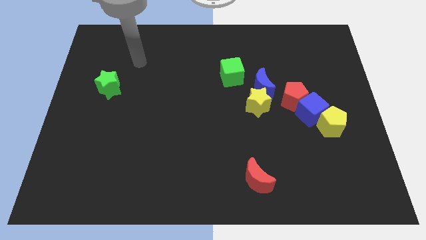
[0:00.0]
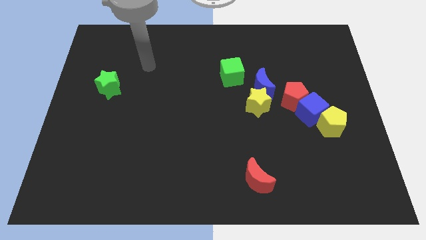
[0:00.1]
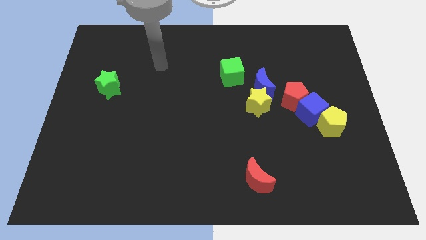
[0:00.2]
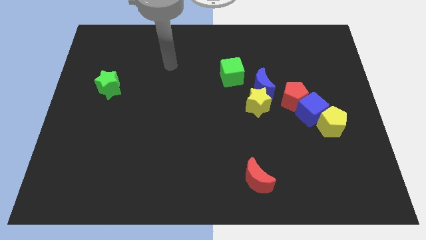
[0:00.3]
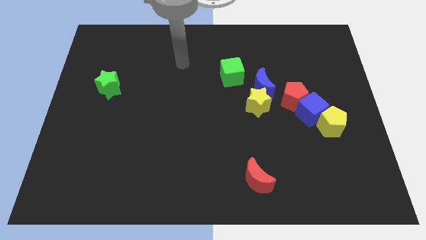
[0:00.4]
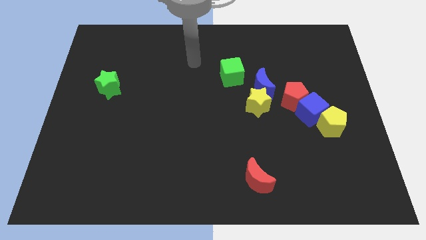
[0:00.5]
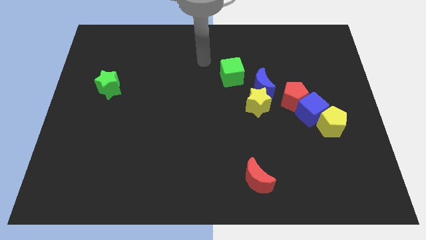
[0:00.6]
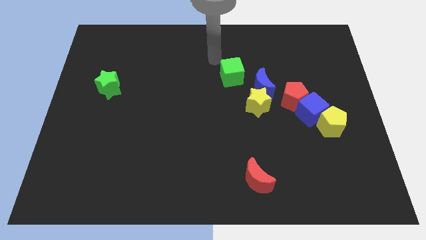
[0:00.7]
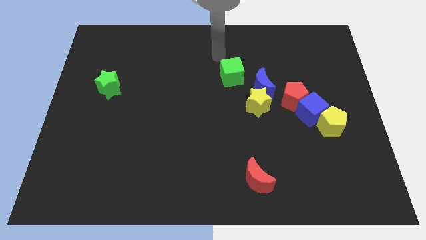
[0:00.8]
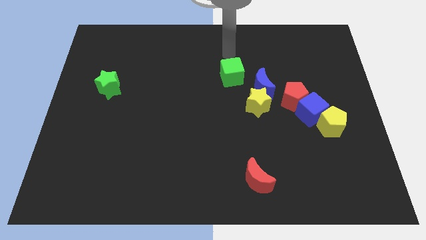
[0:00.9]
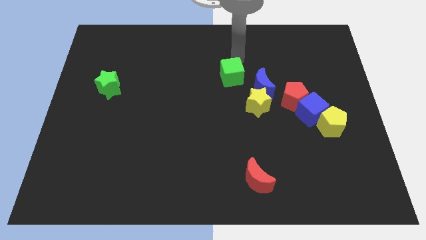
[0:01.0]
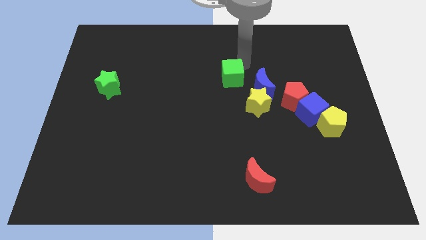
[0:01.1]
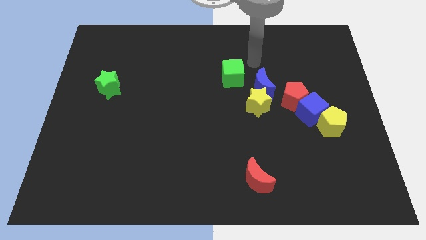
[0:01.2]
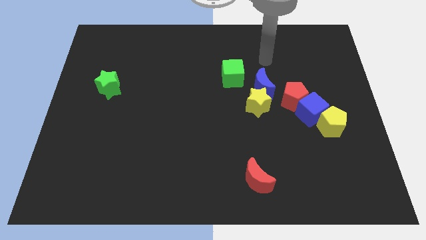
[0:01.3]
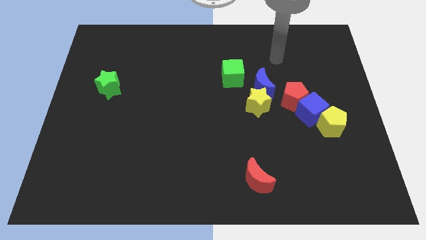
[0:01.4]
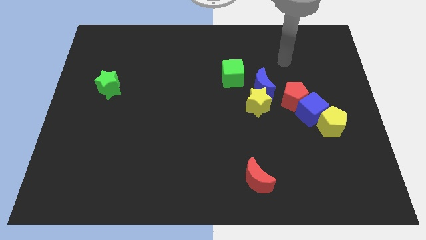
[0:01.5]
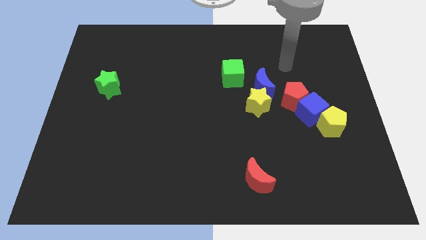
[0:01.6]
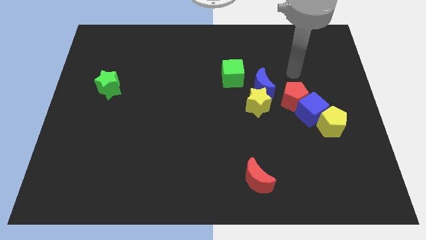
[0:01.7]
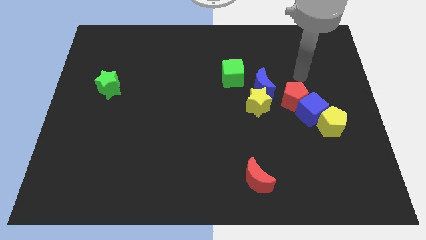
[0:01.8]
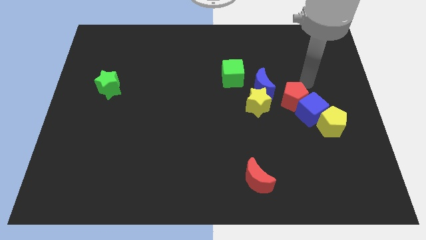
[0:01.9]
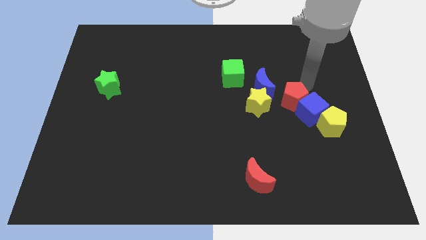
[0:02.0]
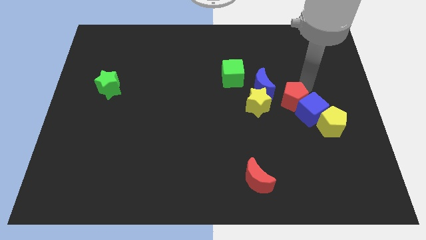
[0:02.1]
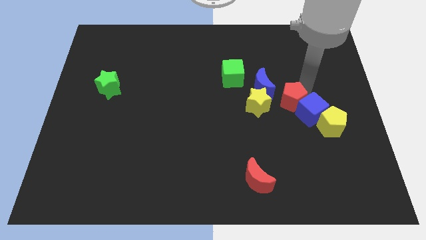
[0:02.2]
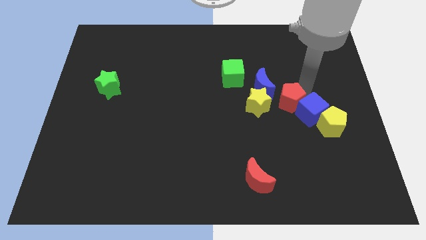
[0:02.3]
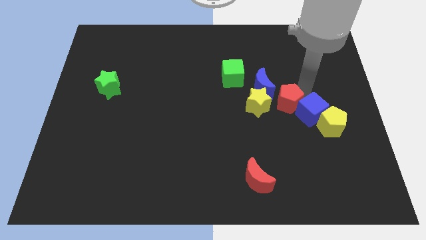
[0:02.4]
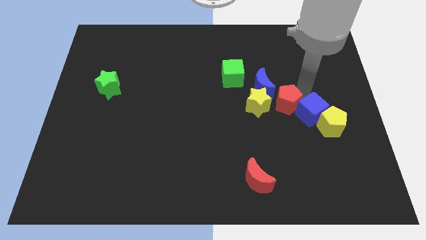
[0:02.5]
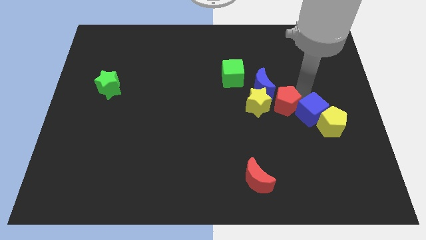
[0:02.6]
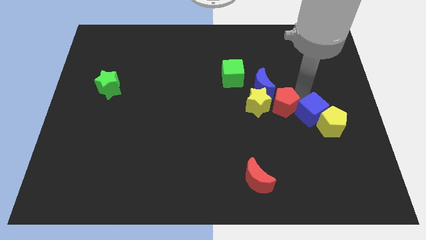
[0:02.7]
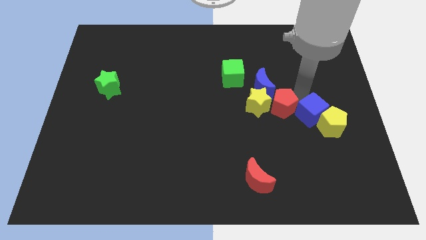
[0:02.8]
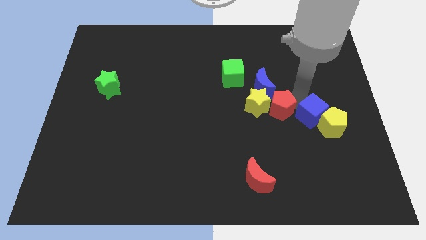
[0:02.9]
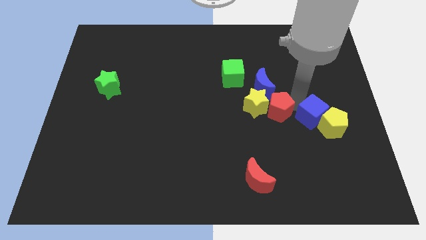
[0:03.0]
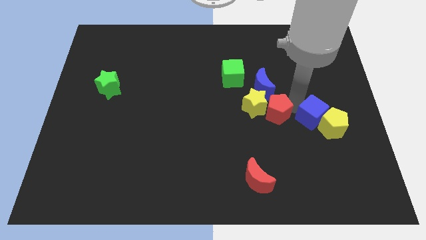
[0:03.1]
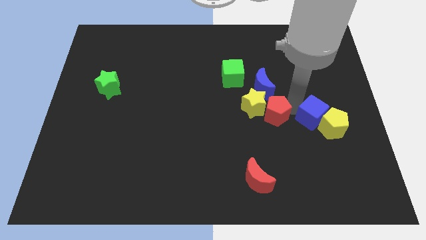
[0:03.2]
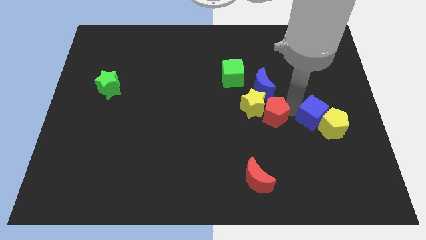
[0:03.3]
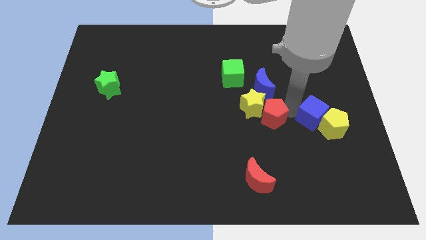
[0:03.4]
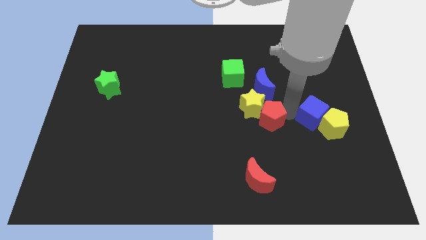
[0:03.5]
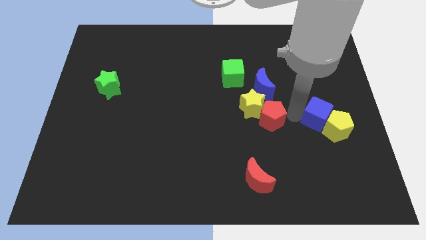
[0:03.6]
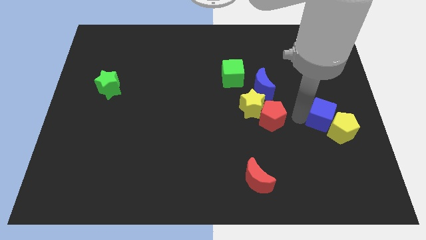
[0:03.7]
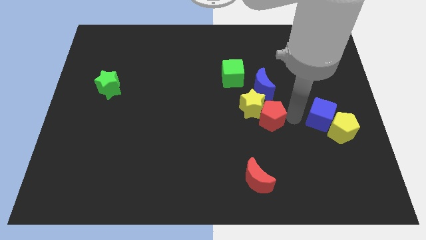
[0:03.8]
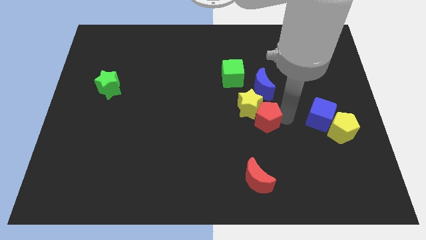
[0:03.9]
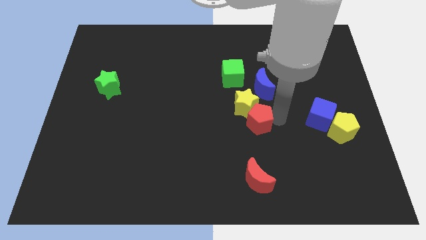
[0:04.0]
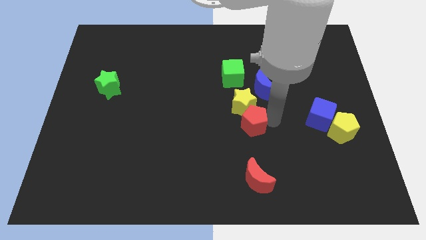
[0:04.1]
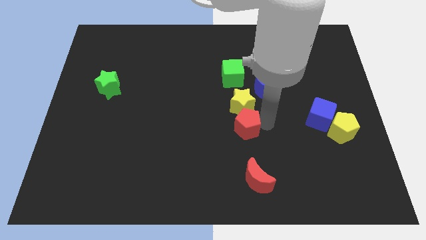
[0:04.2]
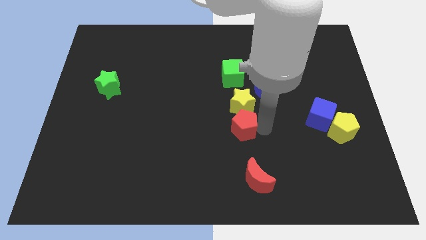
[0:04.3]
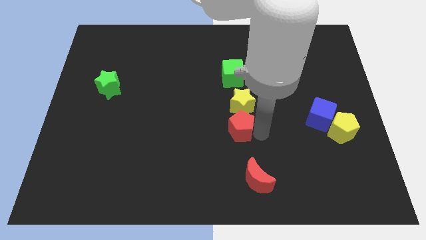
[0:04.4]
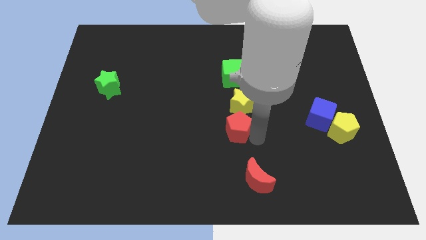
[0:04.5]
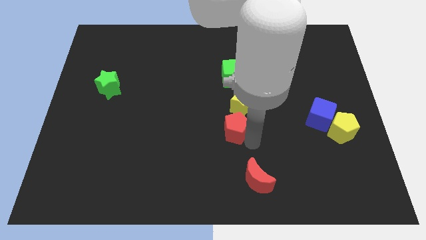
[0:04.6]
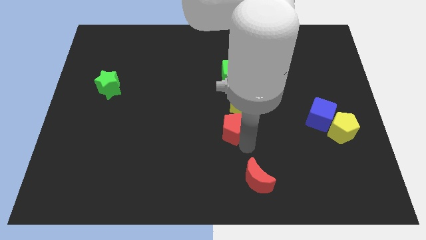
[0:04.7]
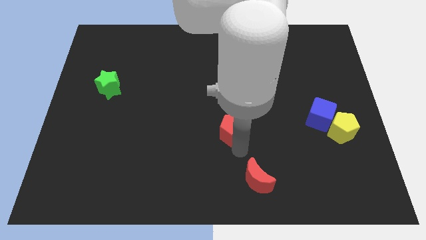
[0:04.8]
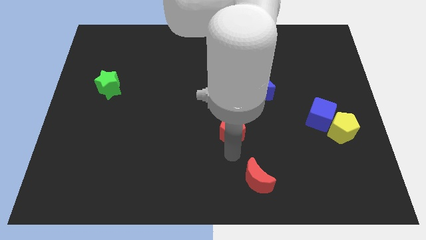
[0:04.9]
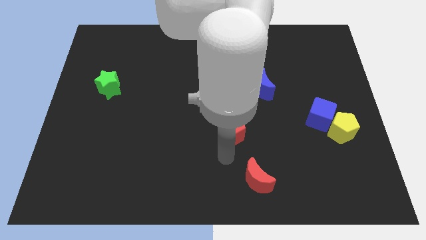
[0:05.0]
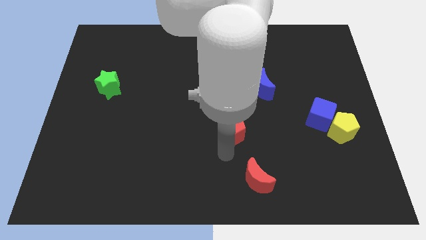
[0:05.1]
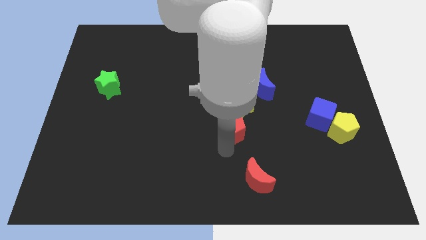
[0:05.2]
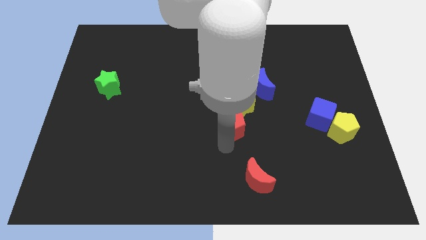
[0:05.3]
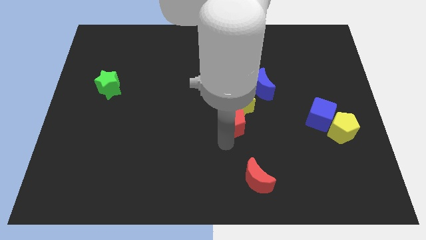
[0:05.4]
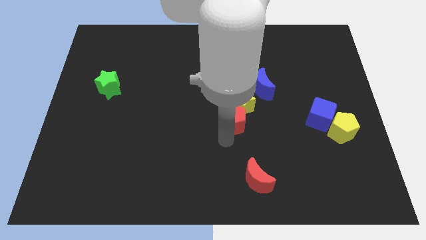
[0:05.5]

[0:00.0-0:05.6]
push the red pentagon diagonally down and to the left of the blue moon

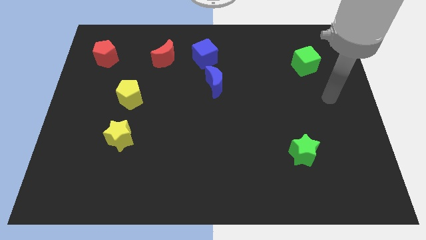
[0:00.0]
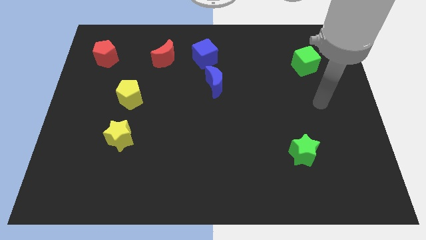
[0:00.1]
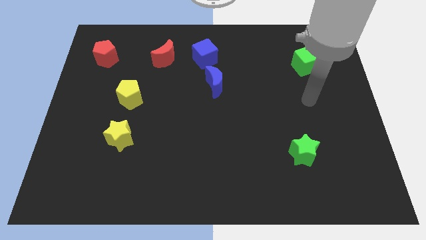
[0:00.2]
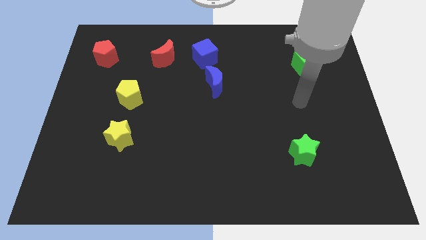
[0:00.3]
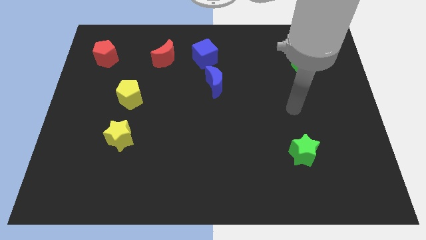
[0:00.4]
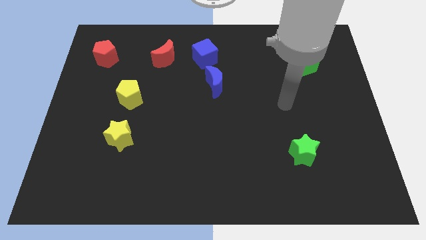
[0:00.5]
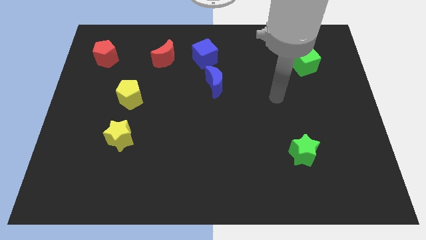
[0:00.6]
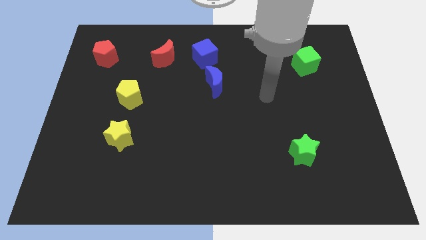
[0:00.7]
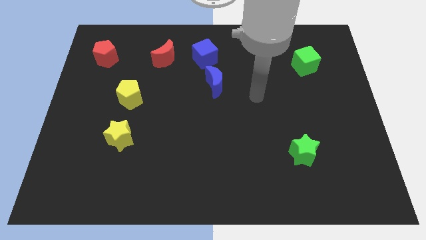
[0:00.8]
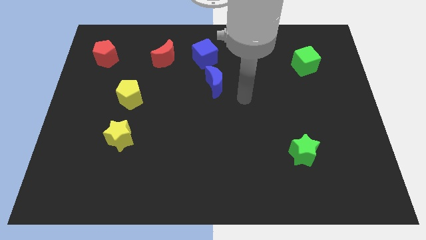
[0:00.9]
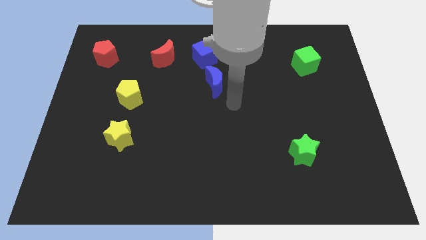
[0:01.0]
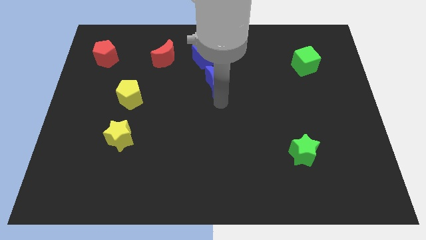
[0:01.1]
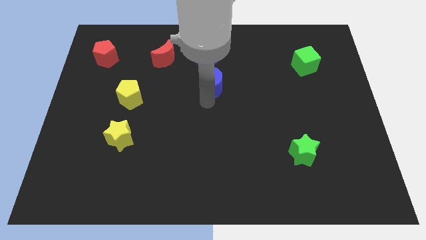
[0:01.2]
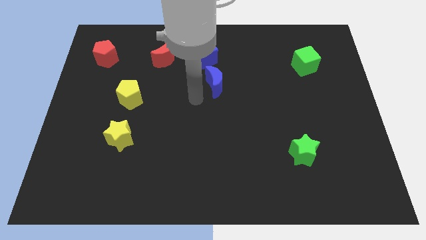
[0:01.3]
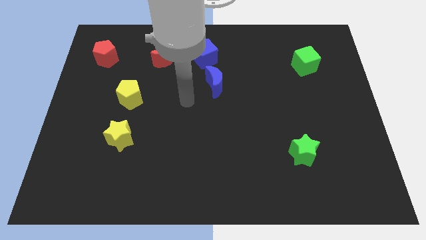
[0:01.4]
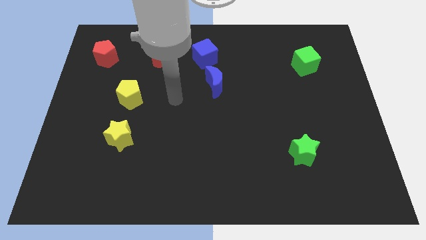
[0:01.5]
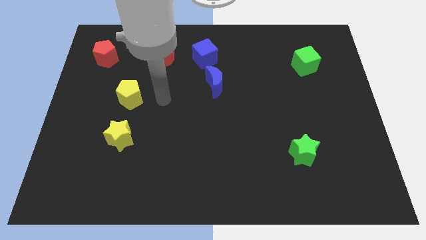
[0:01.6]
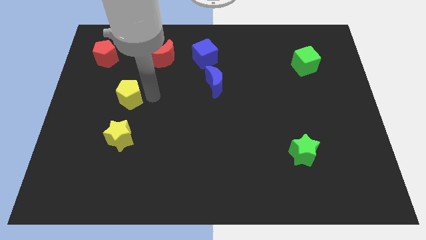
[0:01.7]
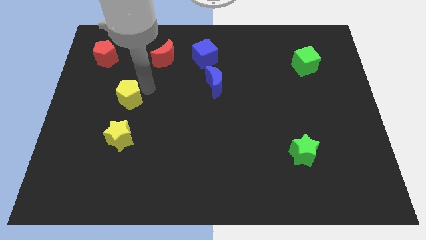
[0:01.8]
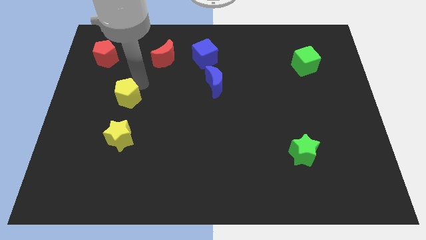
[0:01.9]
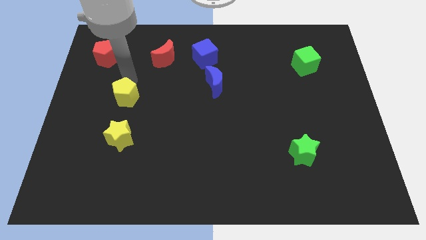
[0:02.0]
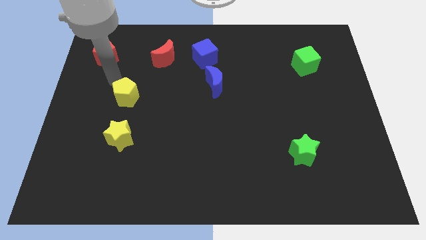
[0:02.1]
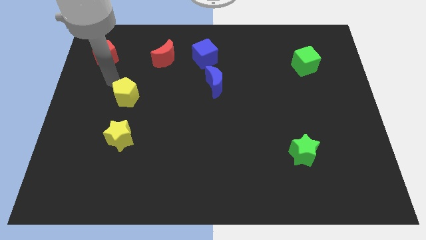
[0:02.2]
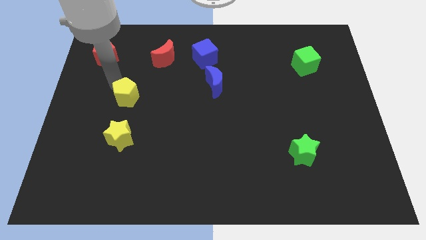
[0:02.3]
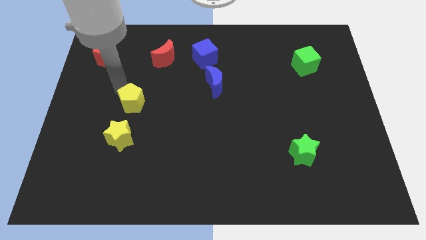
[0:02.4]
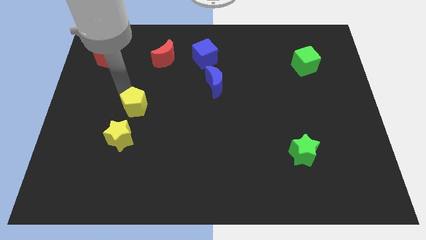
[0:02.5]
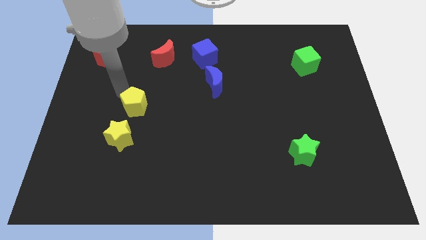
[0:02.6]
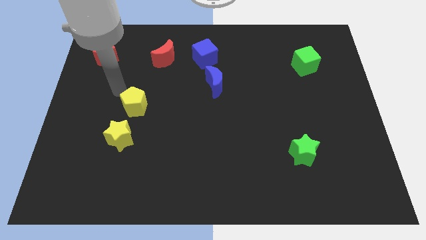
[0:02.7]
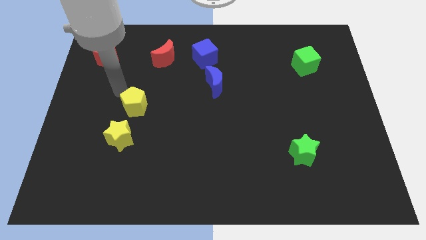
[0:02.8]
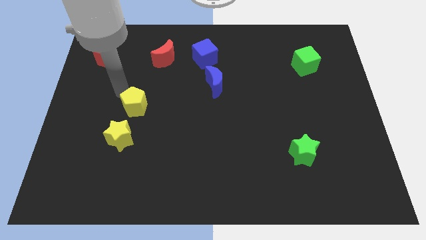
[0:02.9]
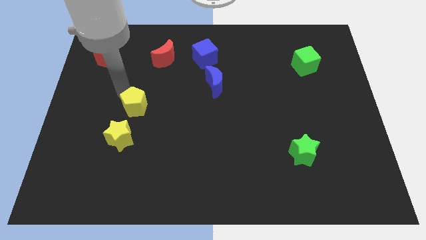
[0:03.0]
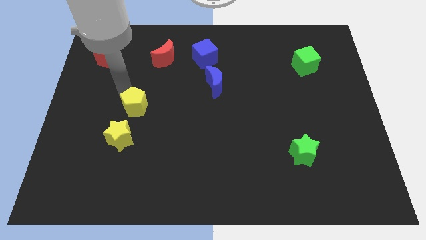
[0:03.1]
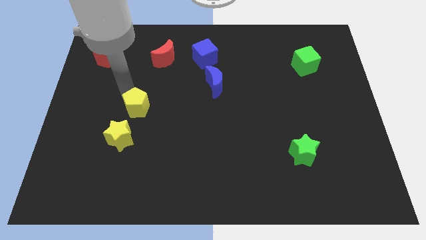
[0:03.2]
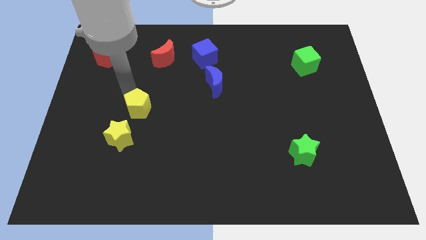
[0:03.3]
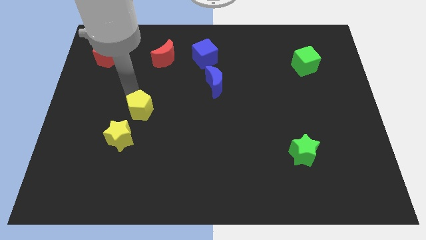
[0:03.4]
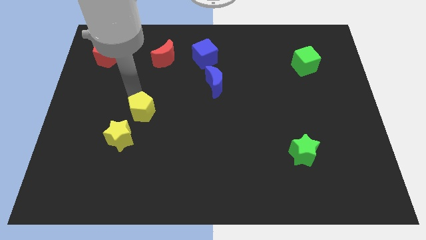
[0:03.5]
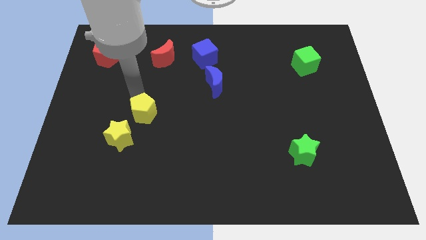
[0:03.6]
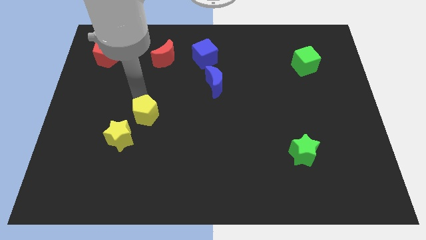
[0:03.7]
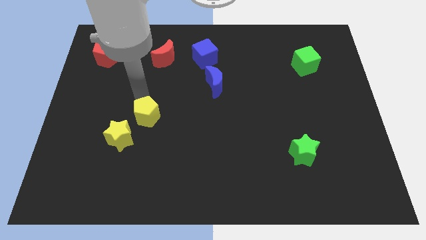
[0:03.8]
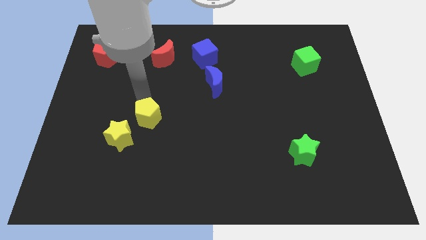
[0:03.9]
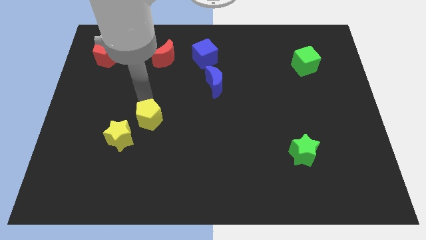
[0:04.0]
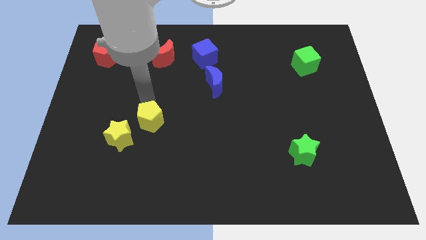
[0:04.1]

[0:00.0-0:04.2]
put the yellow pentagon to the right side of the yellow star
